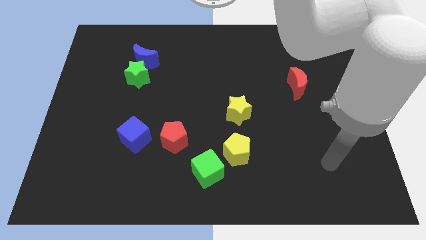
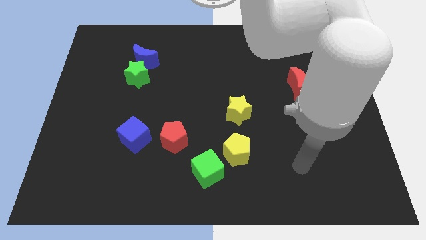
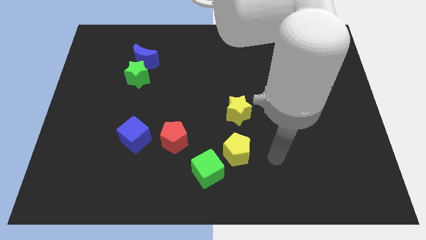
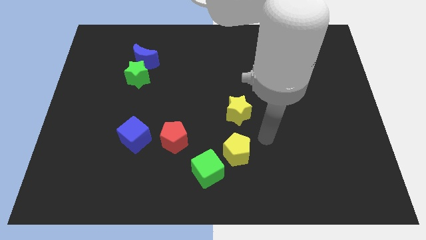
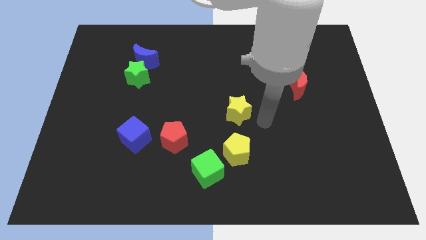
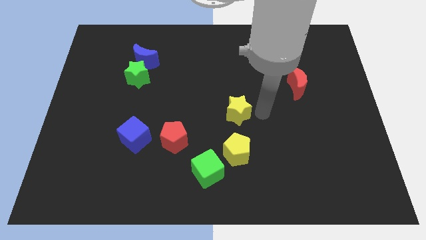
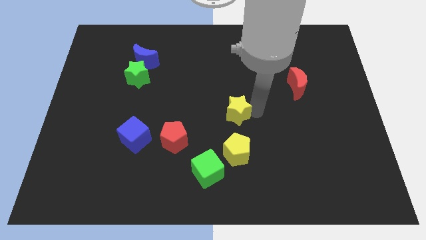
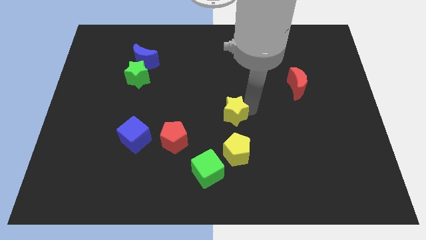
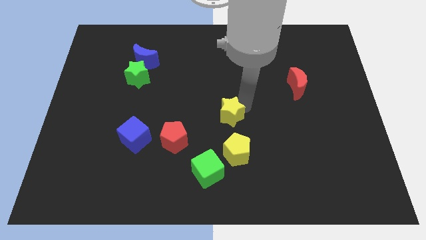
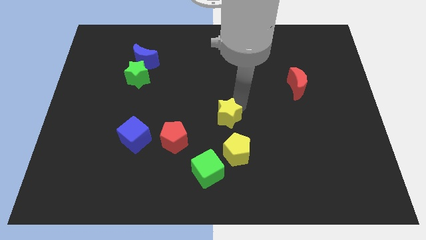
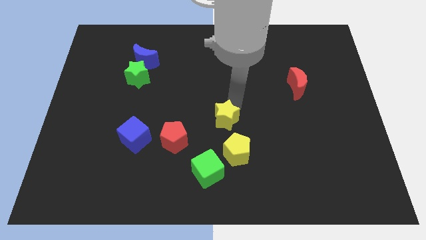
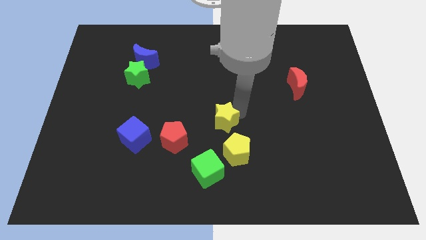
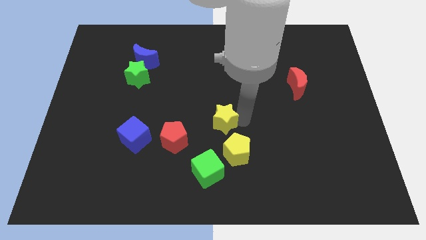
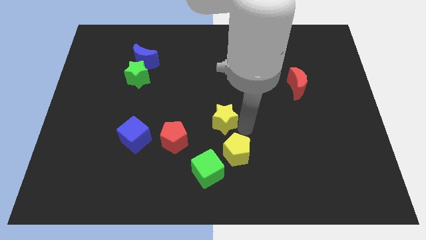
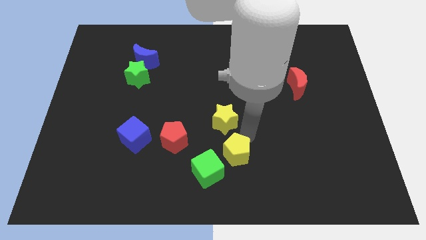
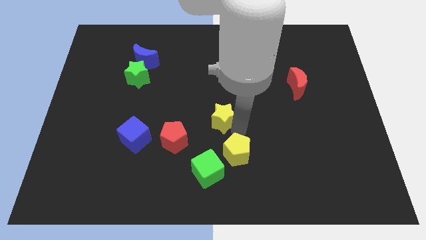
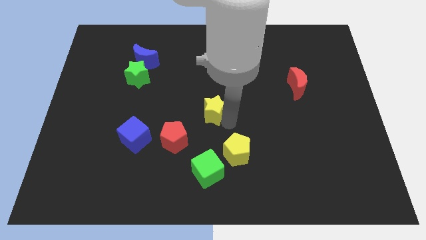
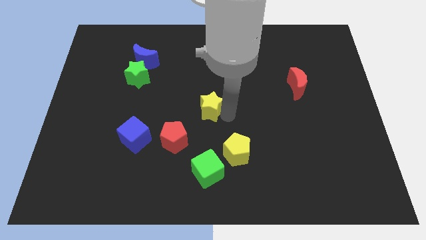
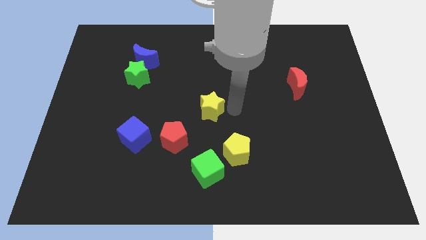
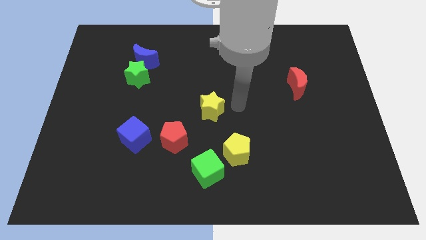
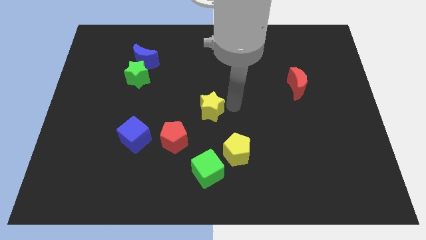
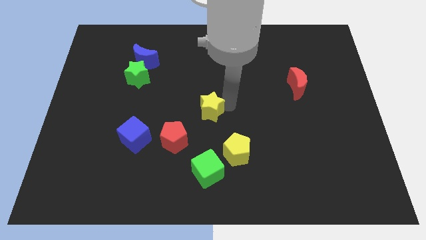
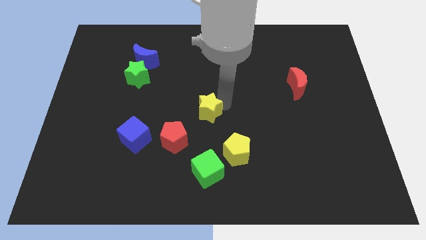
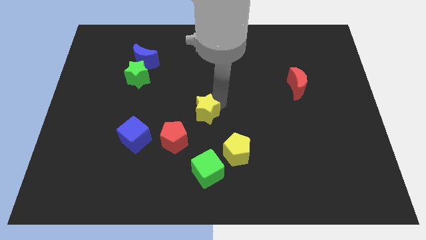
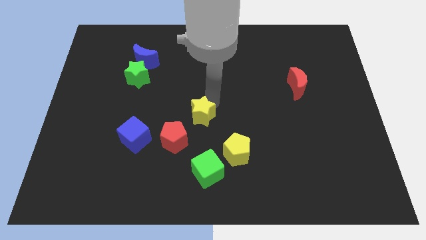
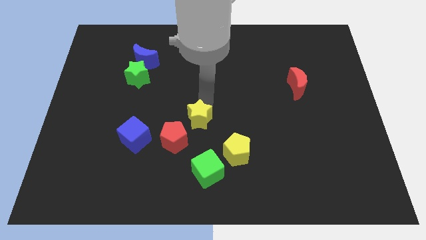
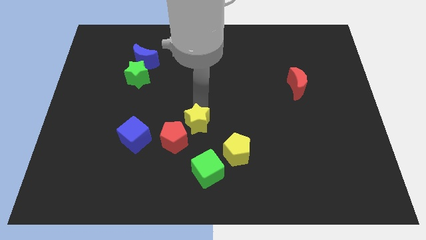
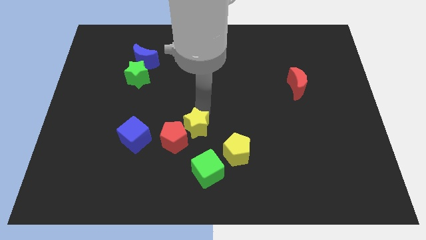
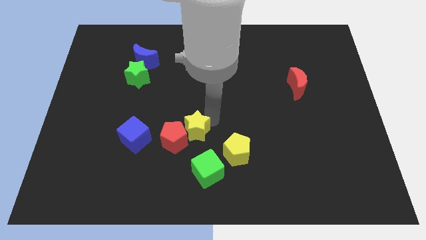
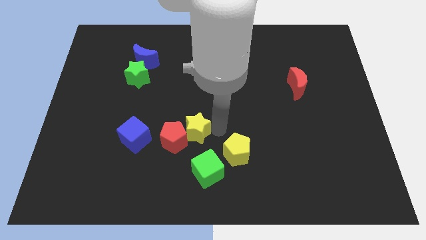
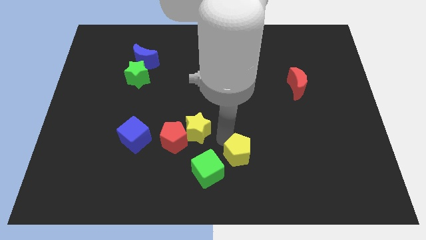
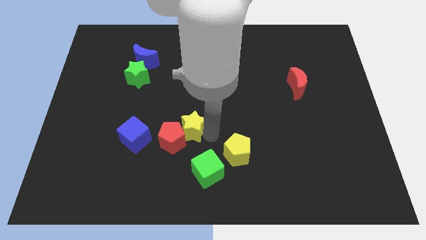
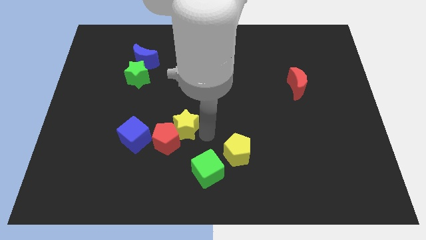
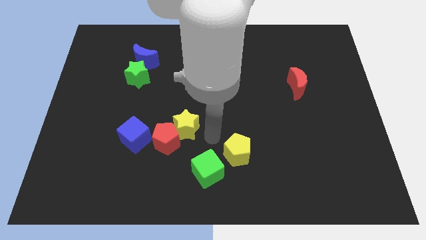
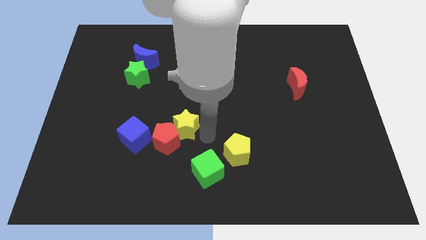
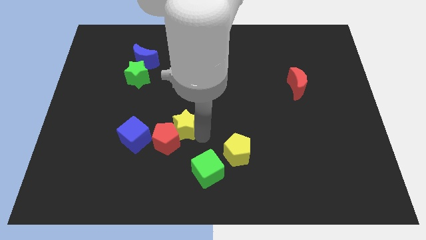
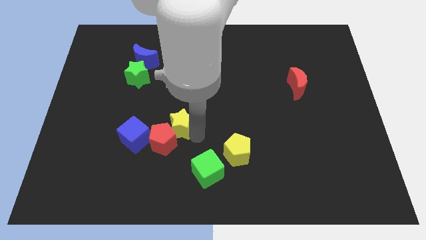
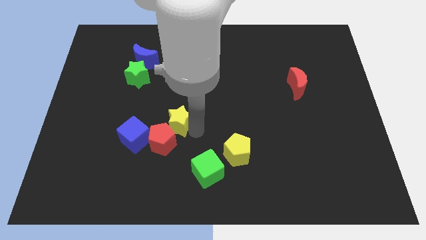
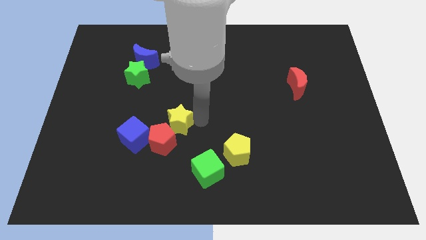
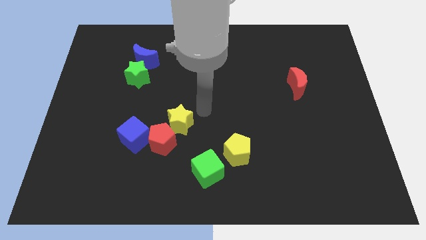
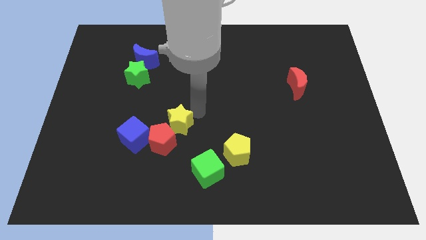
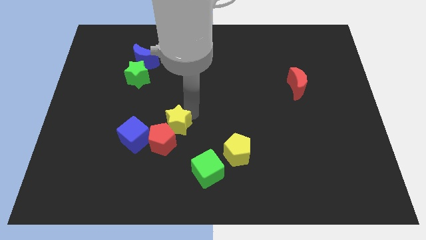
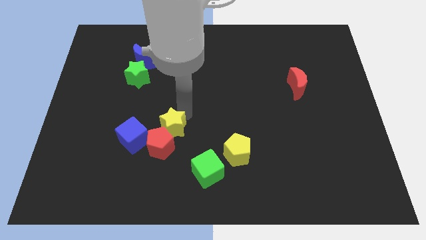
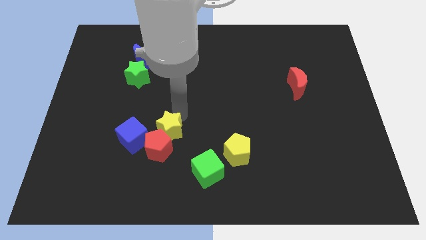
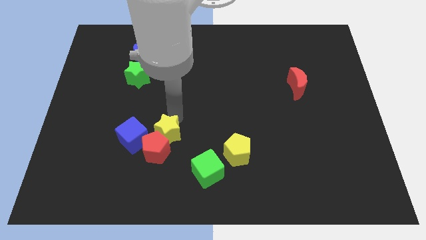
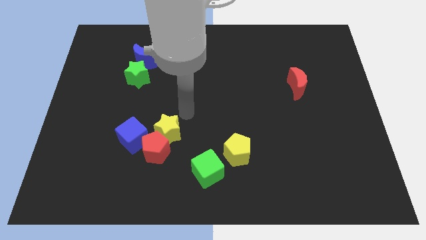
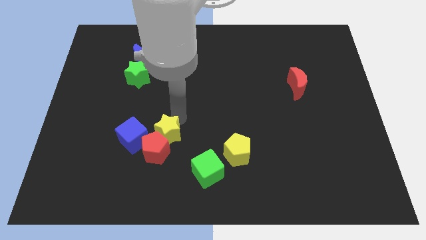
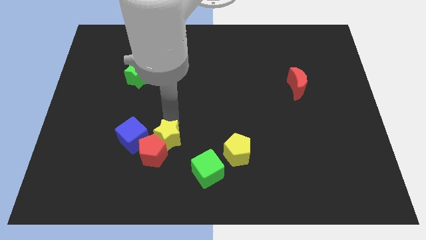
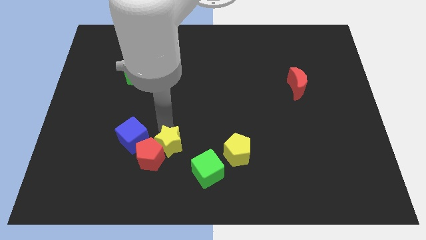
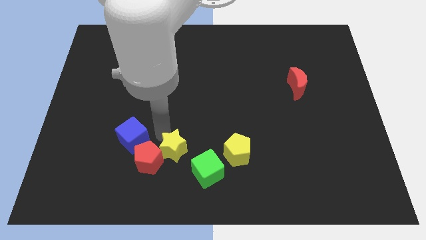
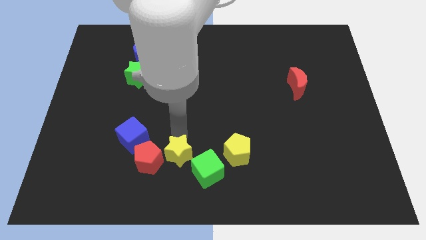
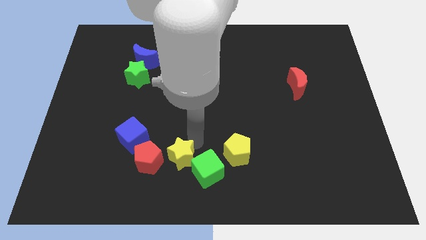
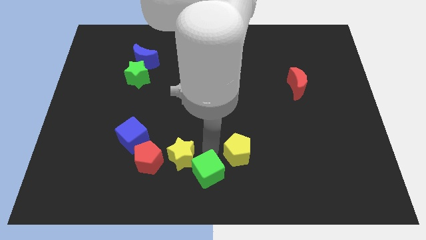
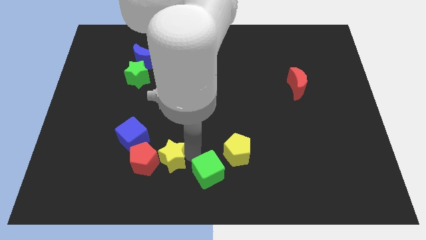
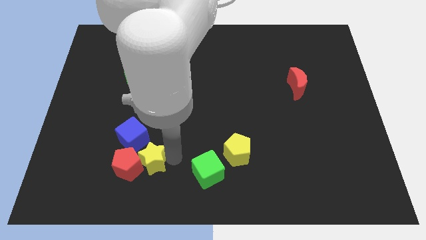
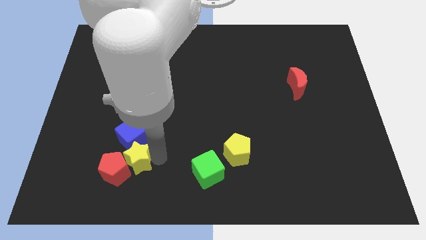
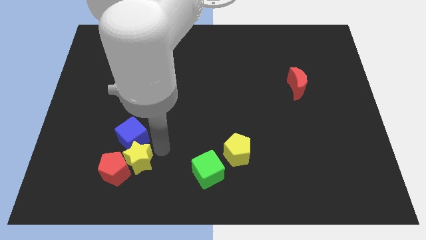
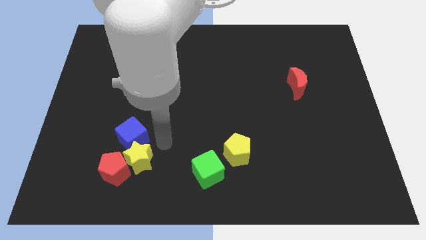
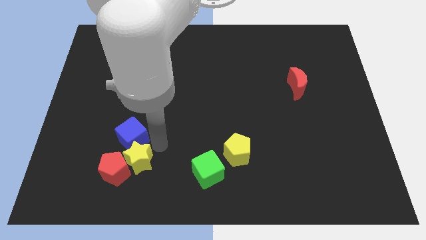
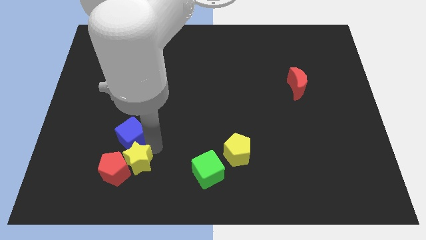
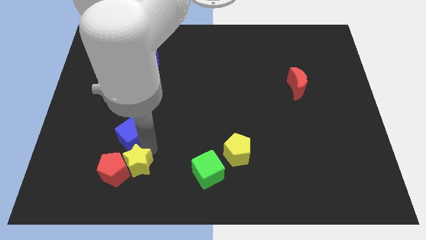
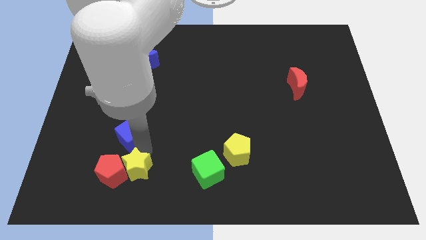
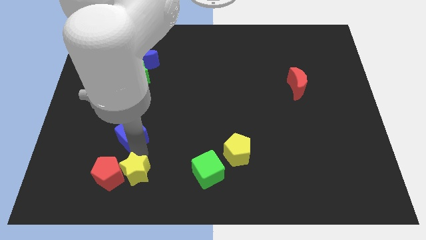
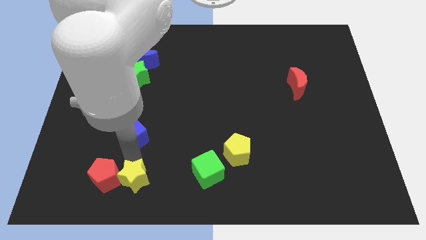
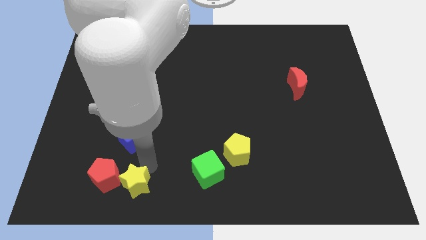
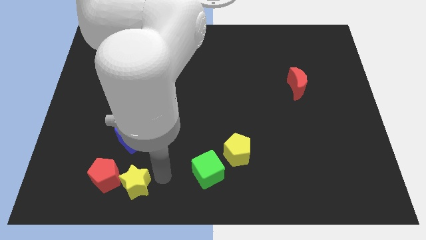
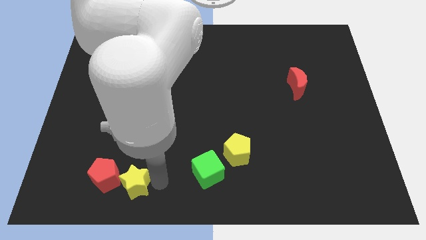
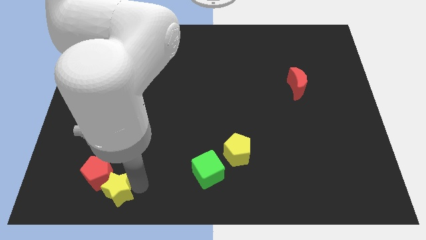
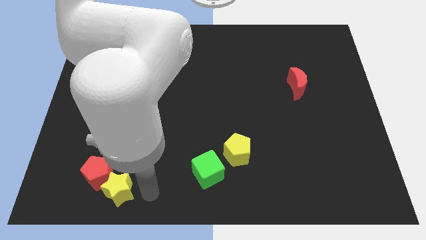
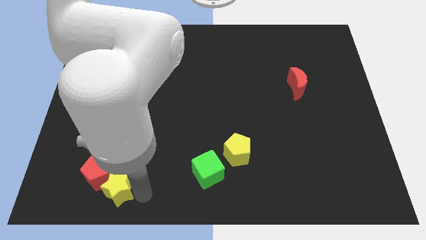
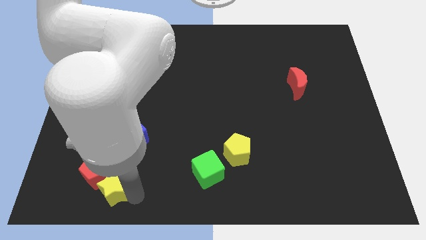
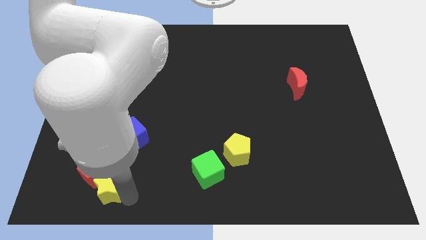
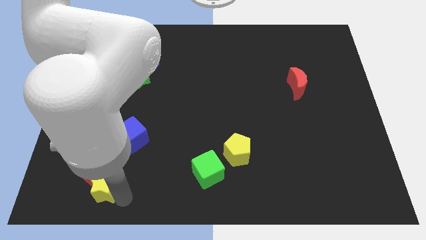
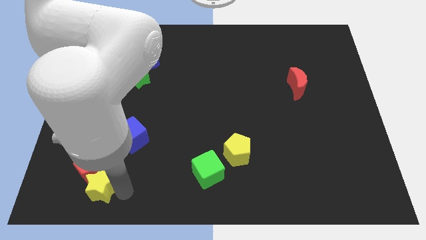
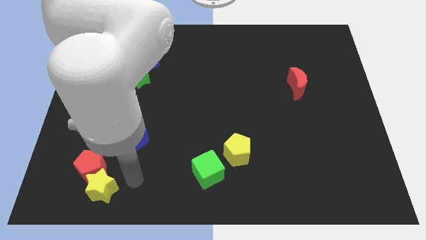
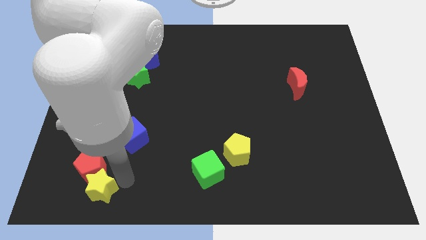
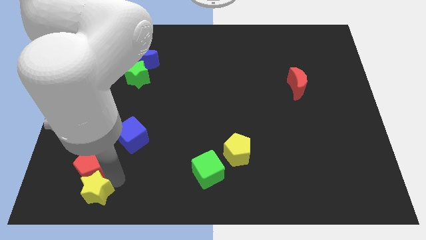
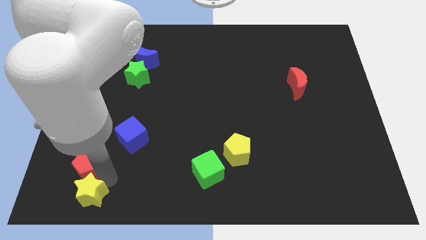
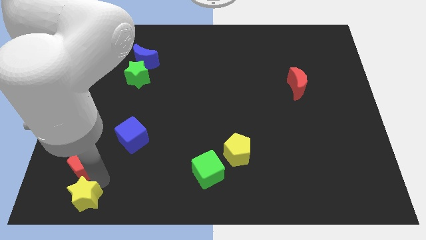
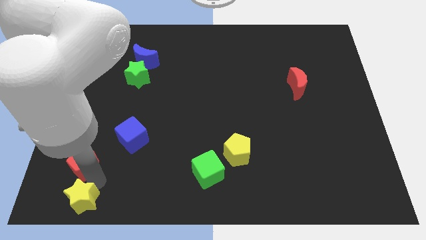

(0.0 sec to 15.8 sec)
push the yellow star to the bottom left
